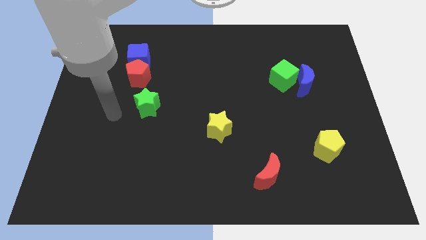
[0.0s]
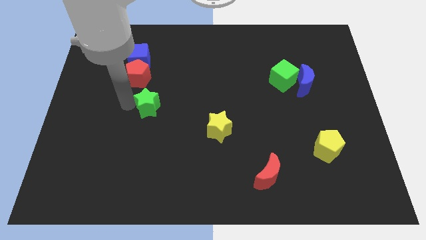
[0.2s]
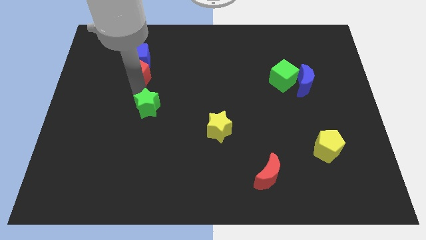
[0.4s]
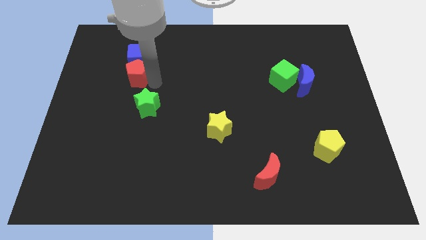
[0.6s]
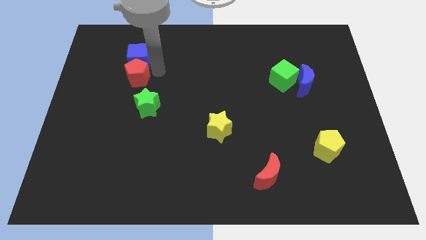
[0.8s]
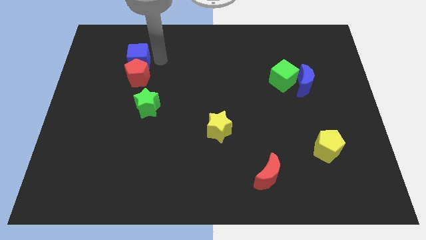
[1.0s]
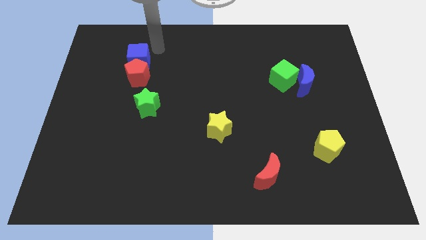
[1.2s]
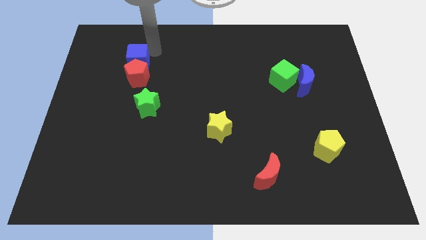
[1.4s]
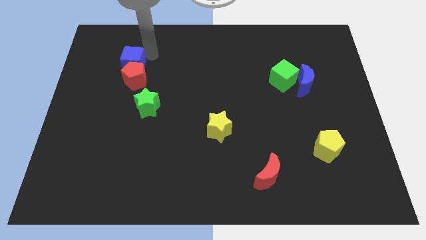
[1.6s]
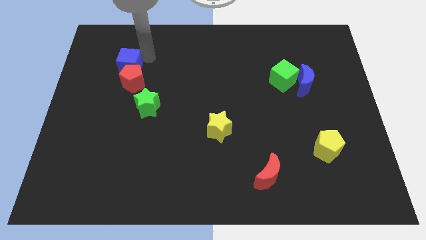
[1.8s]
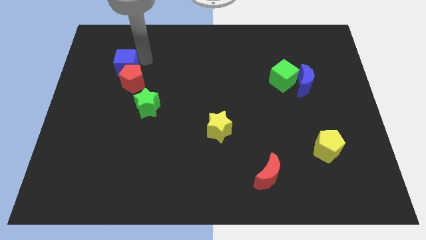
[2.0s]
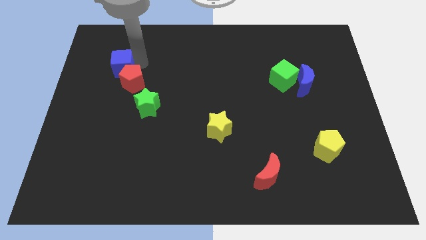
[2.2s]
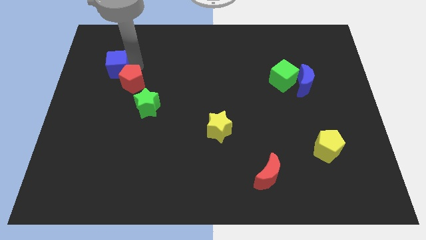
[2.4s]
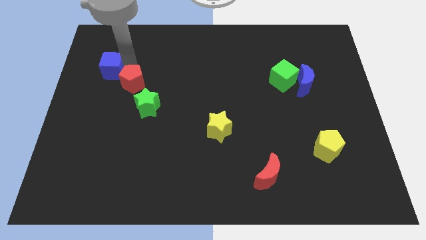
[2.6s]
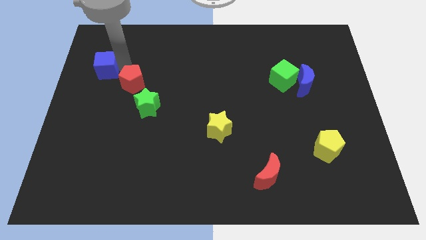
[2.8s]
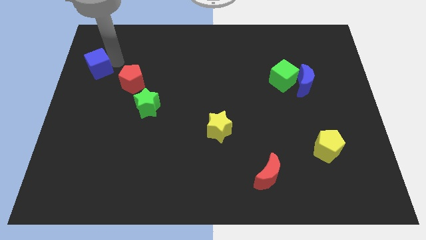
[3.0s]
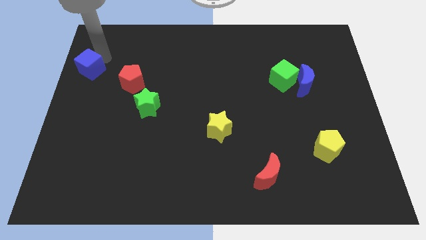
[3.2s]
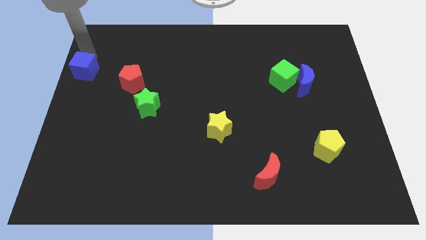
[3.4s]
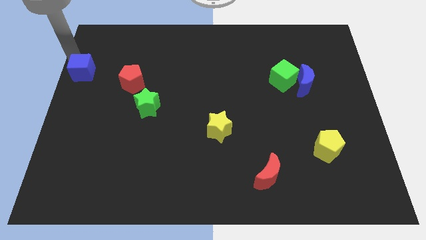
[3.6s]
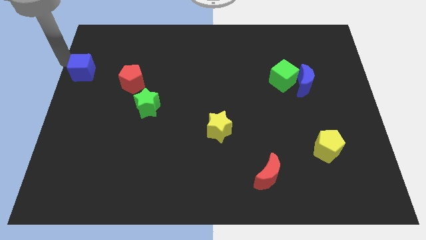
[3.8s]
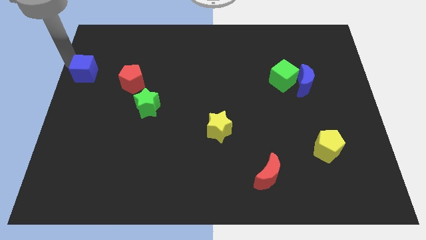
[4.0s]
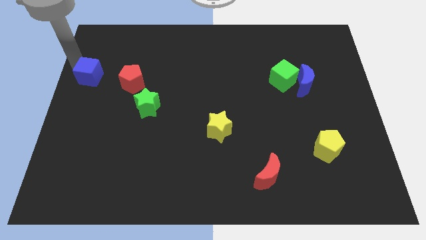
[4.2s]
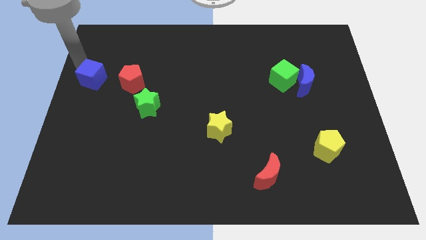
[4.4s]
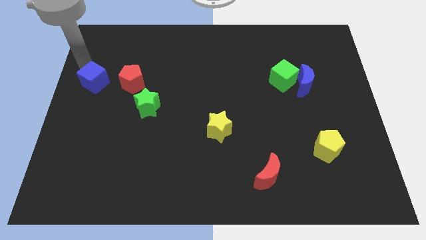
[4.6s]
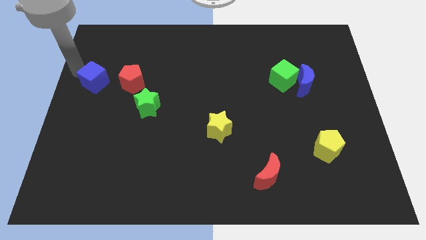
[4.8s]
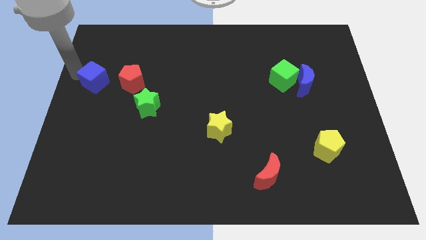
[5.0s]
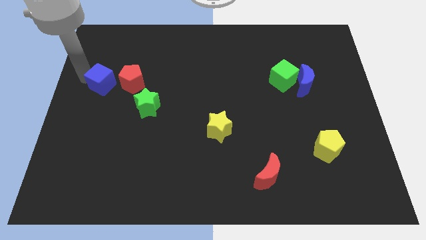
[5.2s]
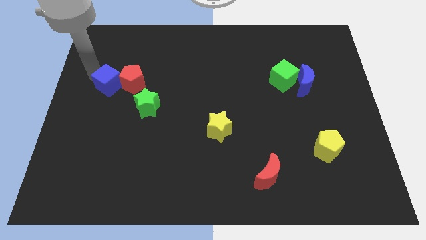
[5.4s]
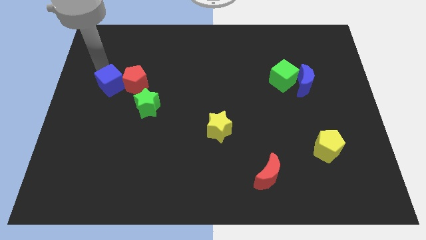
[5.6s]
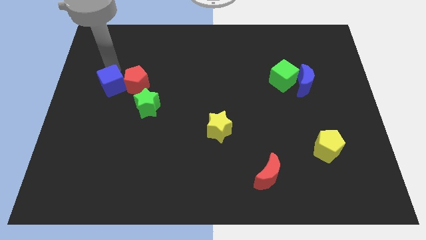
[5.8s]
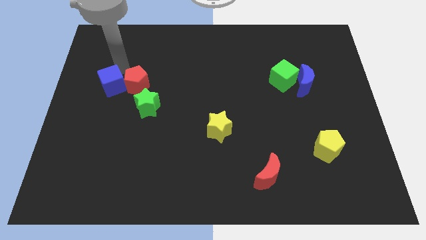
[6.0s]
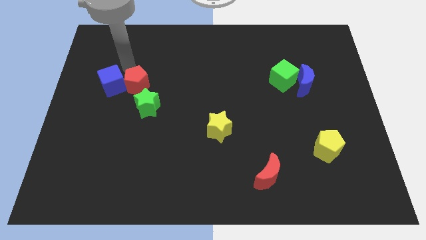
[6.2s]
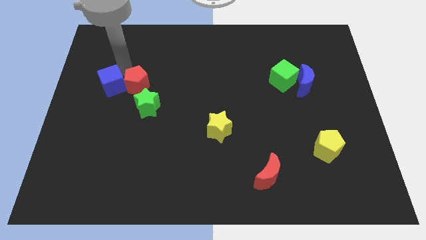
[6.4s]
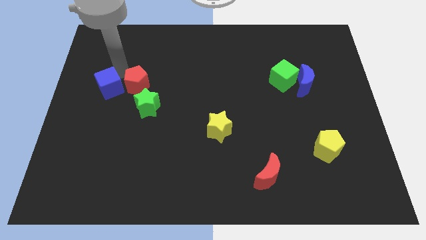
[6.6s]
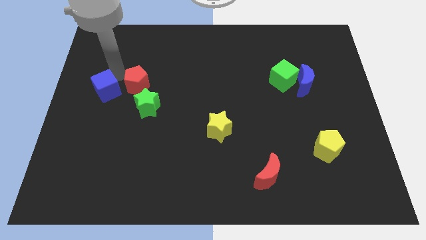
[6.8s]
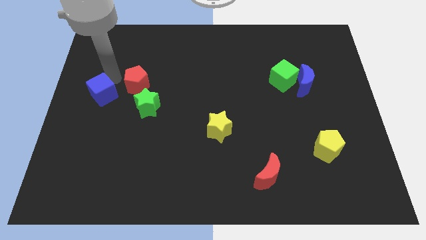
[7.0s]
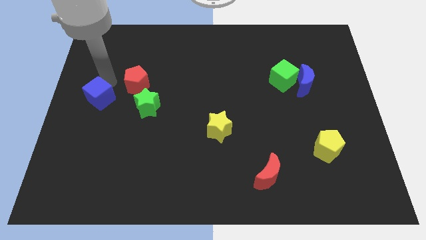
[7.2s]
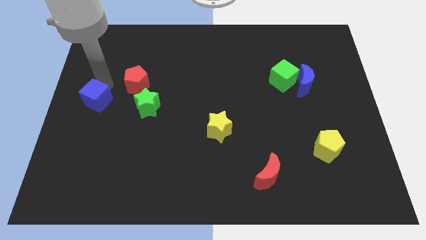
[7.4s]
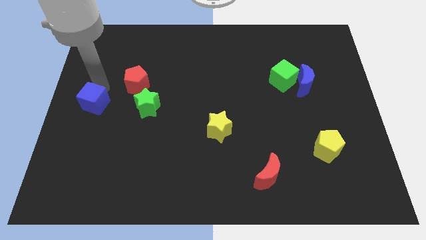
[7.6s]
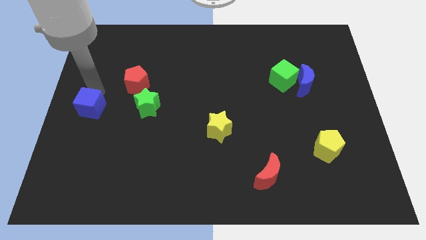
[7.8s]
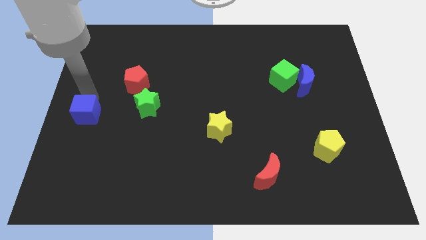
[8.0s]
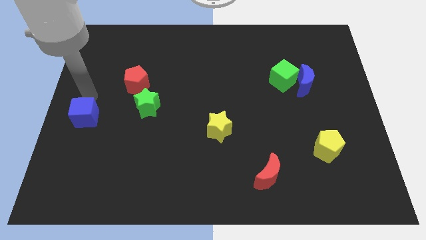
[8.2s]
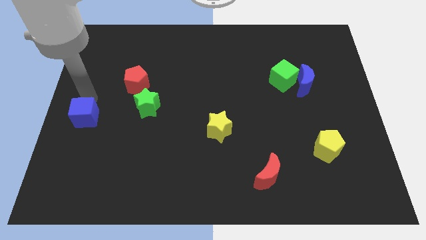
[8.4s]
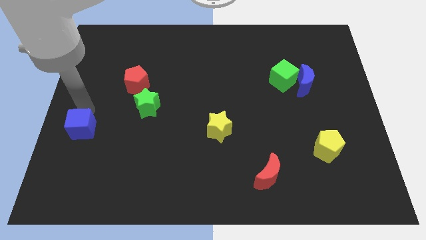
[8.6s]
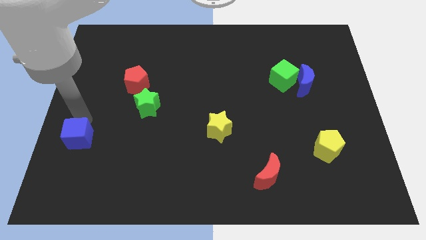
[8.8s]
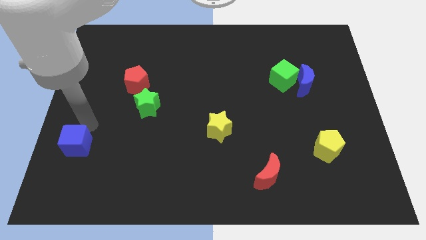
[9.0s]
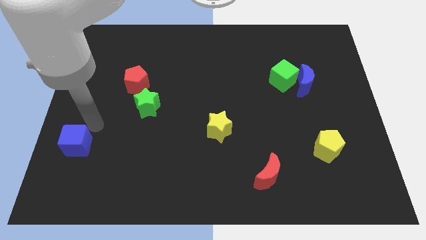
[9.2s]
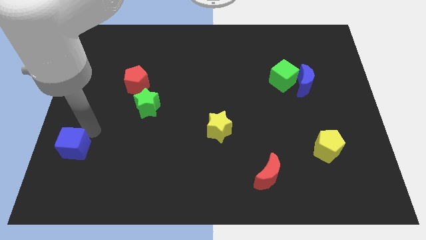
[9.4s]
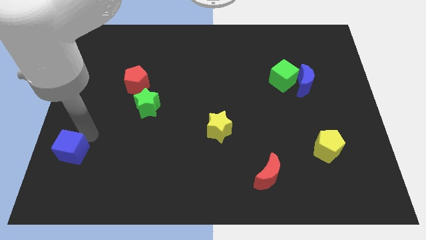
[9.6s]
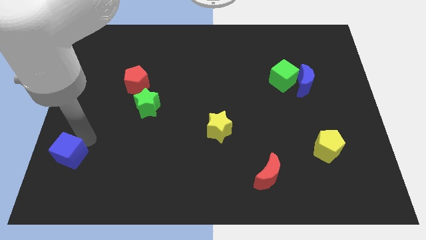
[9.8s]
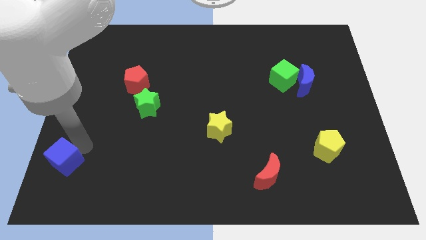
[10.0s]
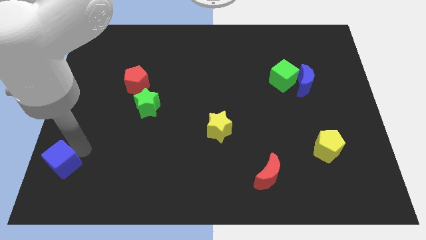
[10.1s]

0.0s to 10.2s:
put the blue cube to the lower left corner

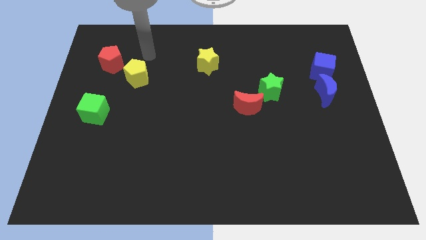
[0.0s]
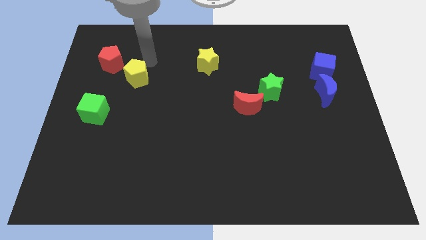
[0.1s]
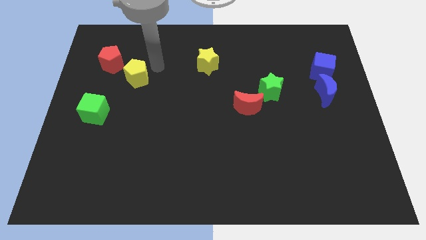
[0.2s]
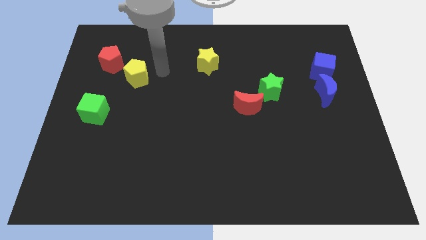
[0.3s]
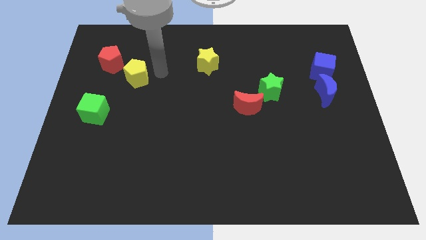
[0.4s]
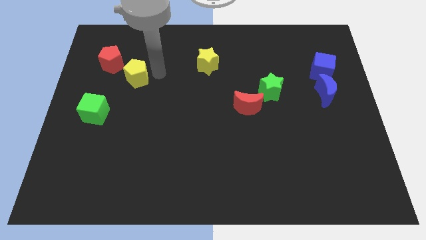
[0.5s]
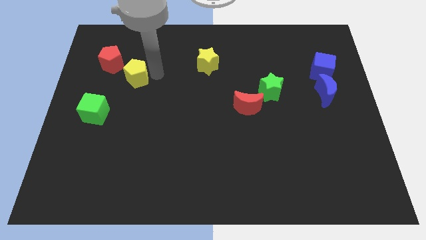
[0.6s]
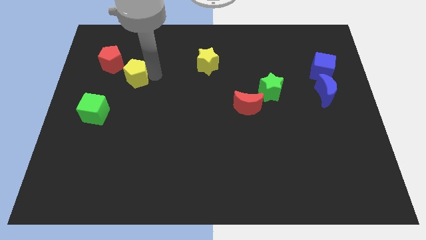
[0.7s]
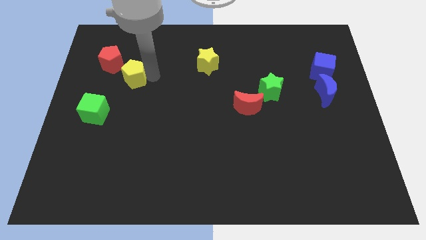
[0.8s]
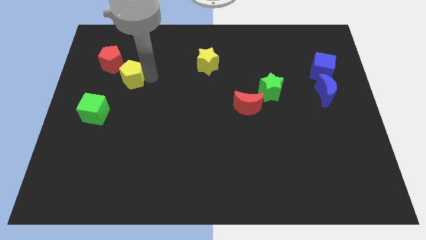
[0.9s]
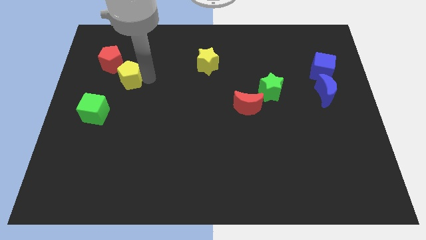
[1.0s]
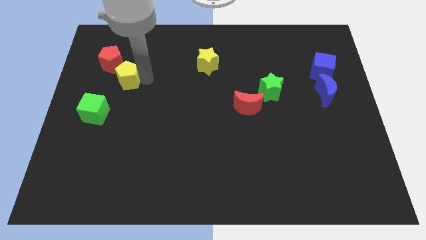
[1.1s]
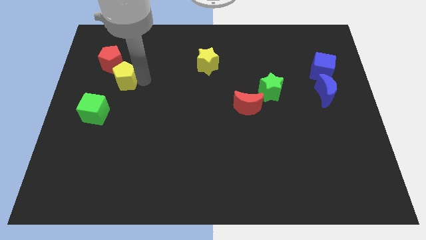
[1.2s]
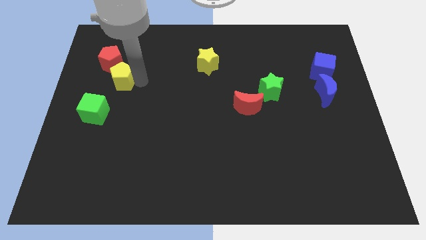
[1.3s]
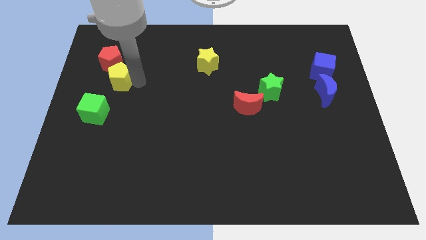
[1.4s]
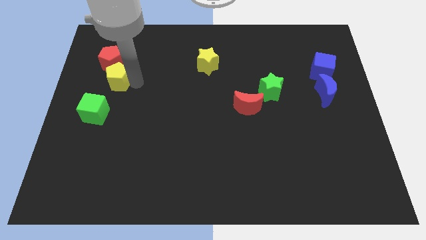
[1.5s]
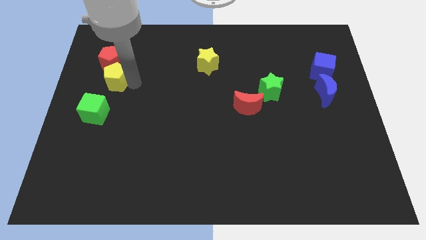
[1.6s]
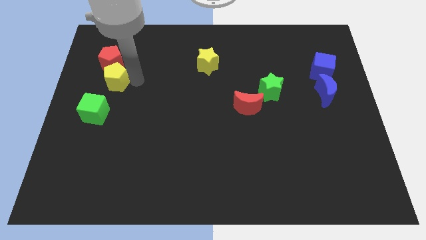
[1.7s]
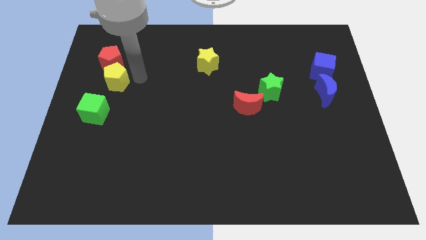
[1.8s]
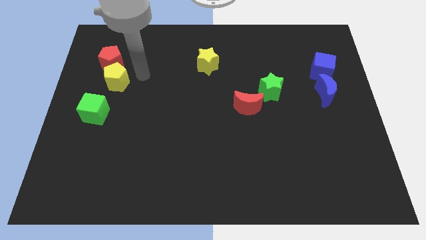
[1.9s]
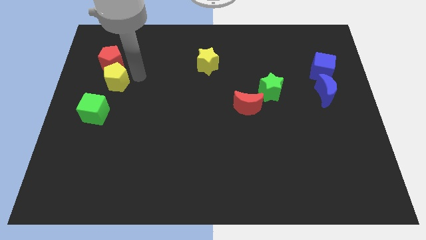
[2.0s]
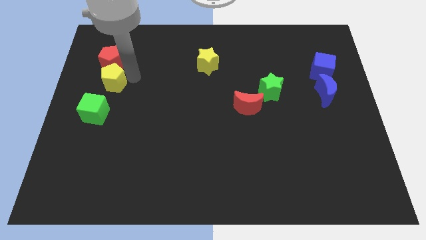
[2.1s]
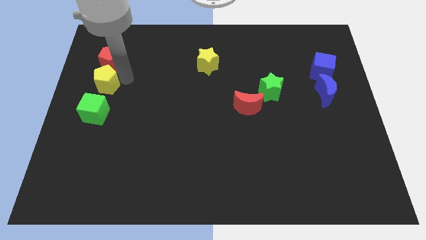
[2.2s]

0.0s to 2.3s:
push the yellow pentagon to the center left

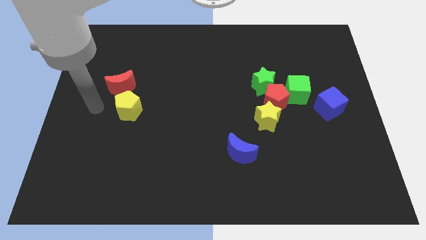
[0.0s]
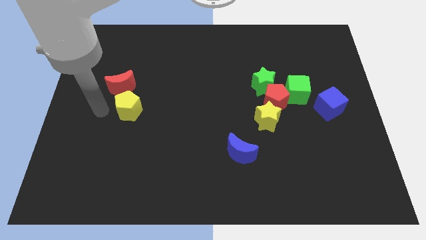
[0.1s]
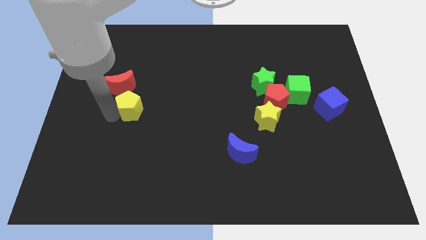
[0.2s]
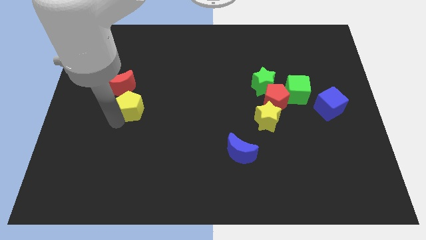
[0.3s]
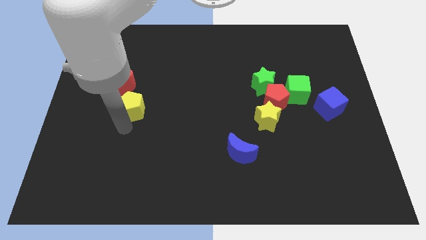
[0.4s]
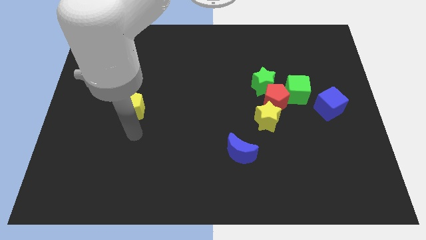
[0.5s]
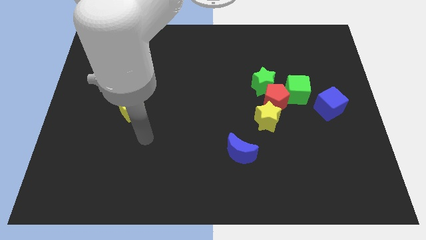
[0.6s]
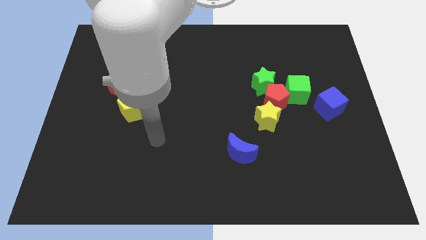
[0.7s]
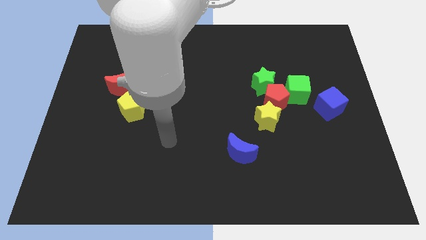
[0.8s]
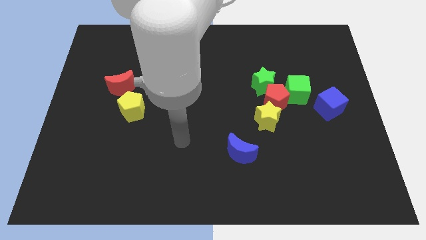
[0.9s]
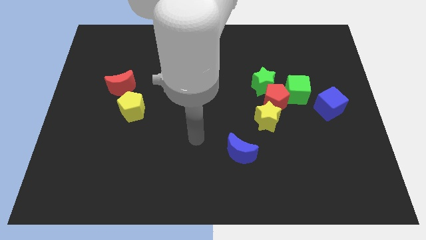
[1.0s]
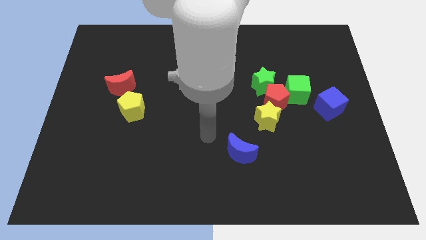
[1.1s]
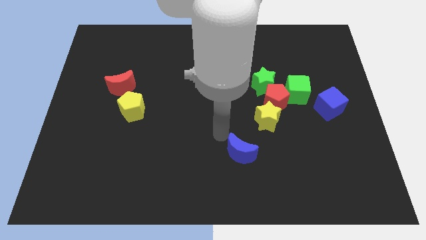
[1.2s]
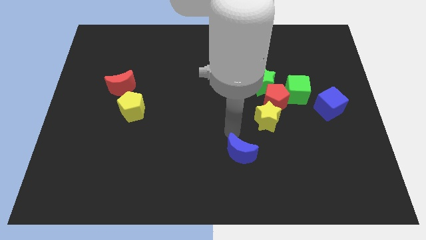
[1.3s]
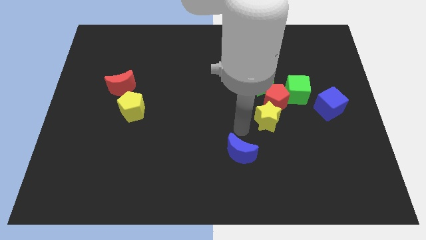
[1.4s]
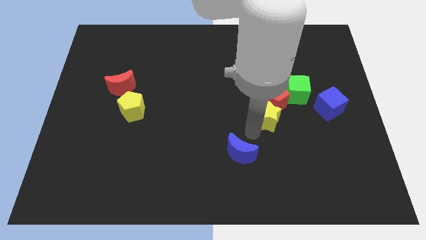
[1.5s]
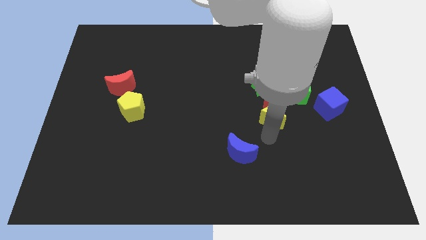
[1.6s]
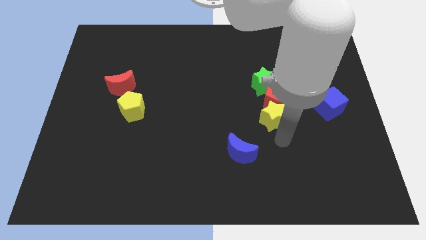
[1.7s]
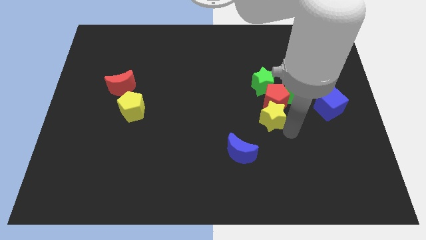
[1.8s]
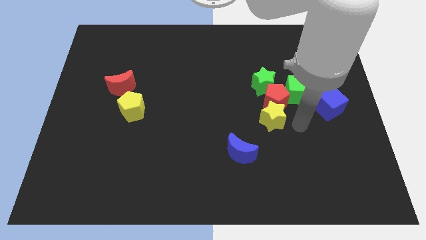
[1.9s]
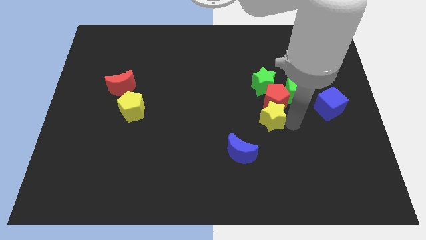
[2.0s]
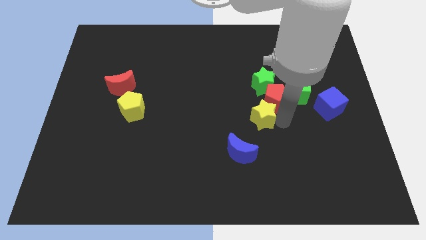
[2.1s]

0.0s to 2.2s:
put the yellow star to the middle of the board
